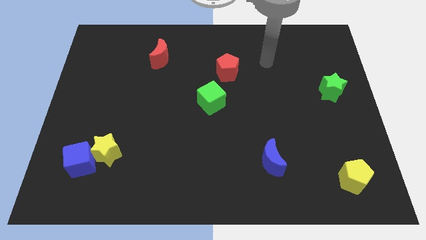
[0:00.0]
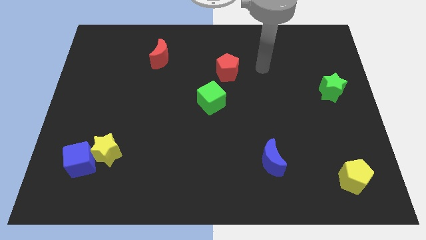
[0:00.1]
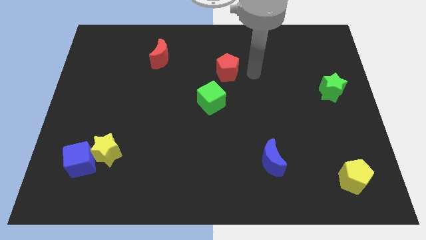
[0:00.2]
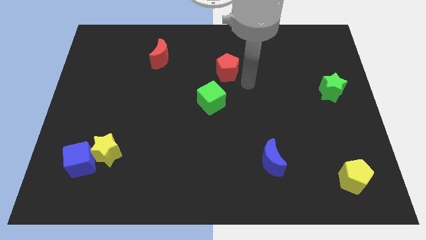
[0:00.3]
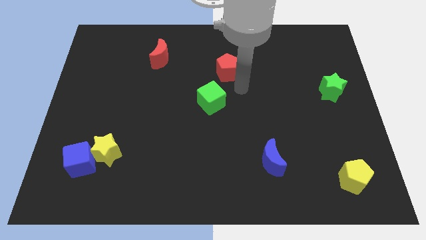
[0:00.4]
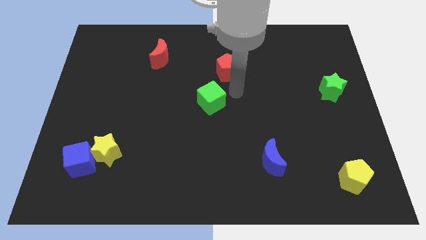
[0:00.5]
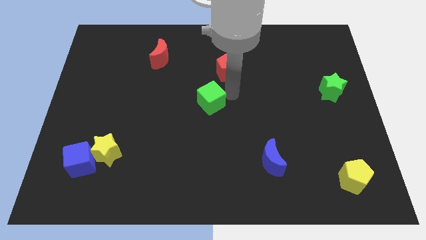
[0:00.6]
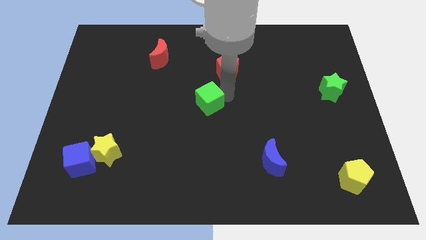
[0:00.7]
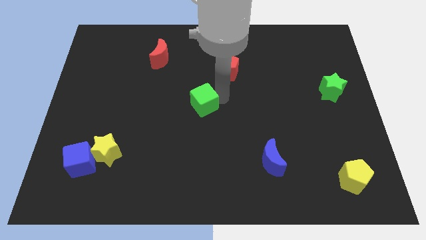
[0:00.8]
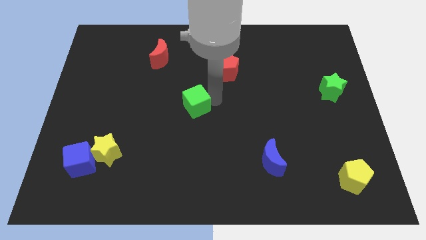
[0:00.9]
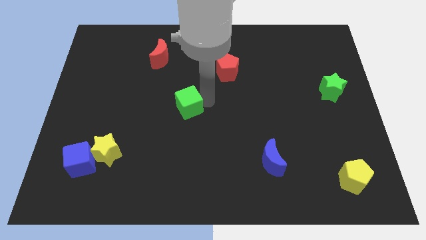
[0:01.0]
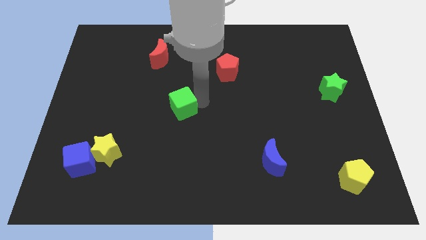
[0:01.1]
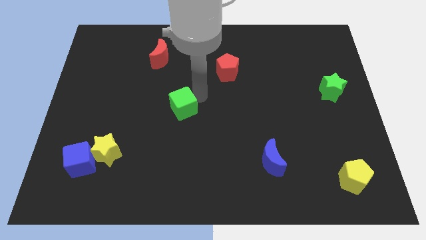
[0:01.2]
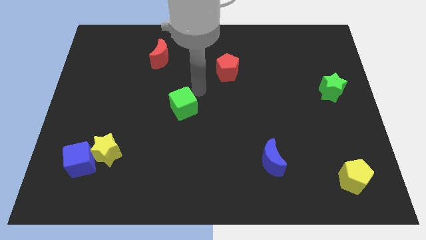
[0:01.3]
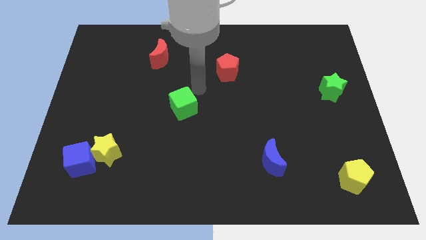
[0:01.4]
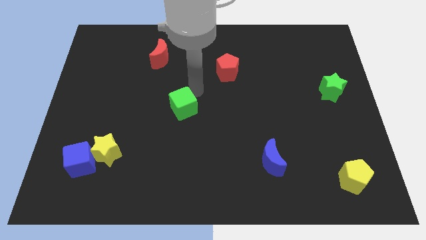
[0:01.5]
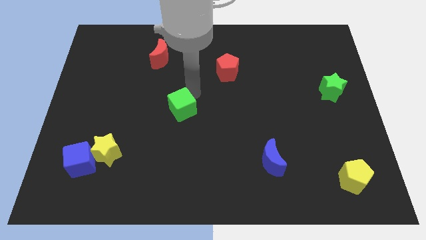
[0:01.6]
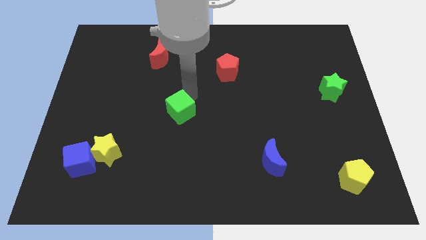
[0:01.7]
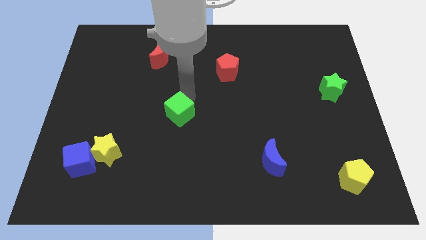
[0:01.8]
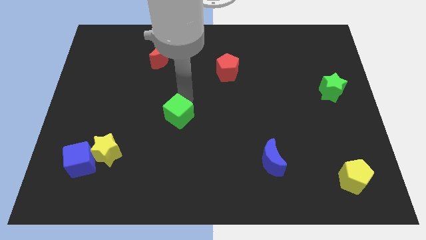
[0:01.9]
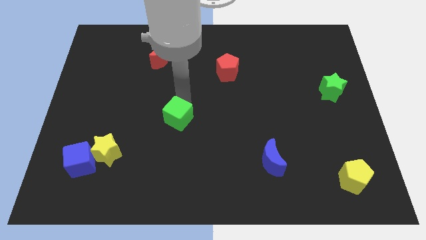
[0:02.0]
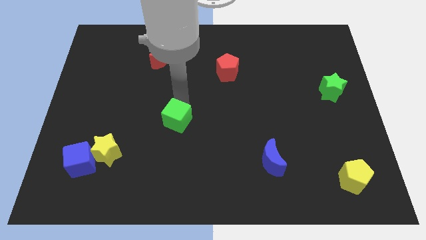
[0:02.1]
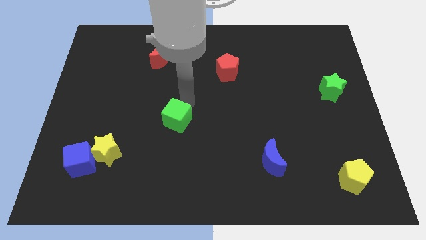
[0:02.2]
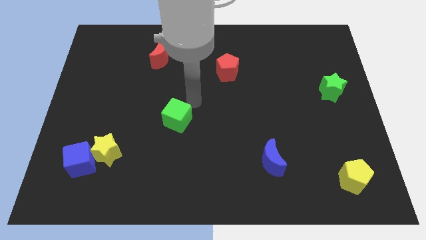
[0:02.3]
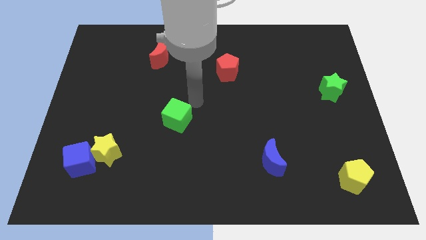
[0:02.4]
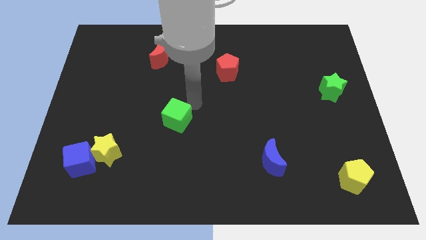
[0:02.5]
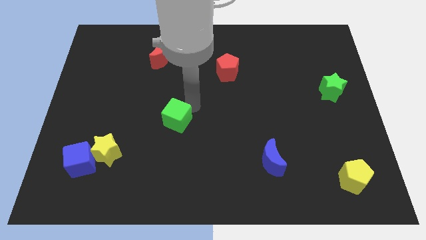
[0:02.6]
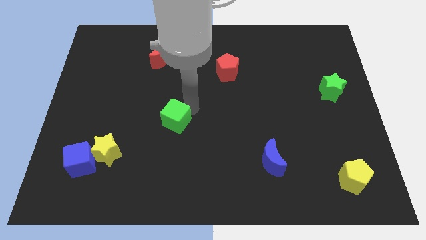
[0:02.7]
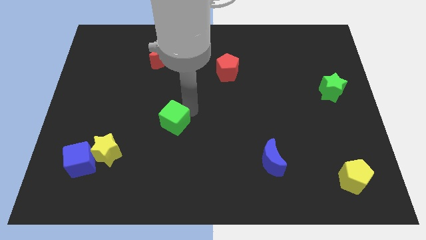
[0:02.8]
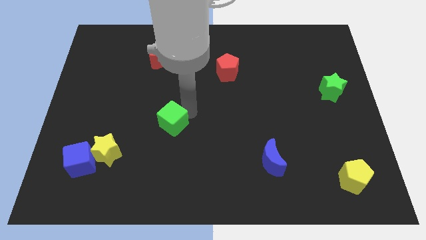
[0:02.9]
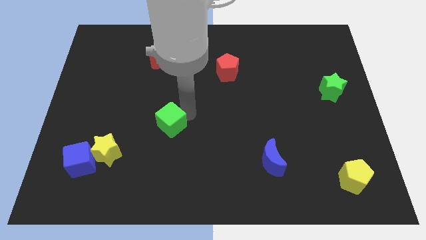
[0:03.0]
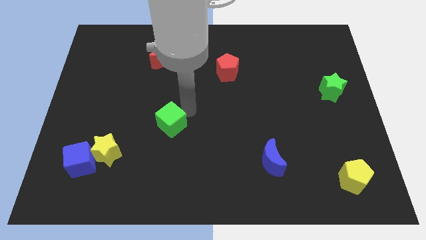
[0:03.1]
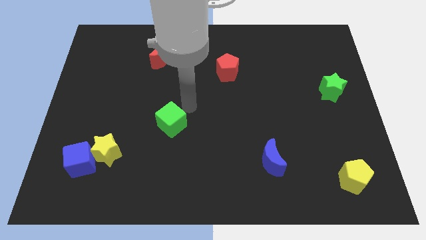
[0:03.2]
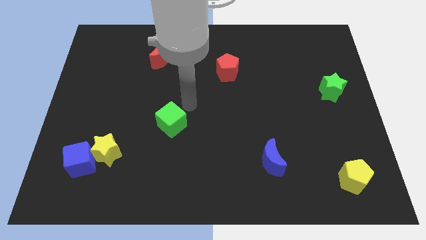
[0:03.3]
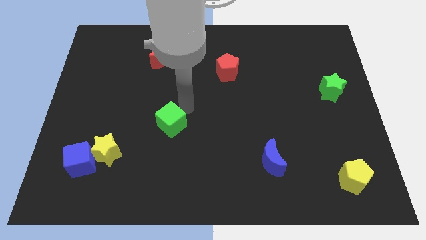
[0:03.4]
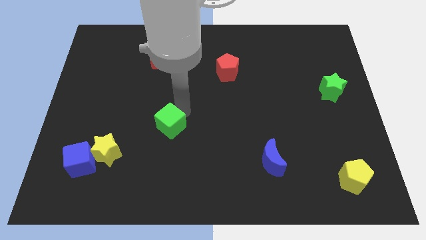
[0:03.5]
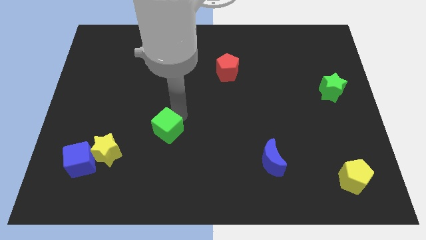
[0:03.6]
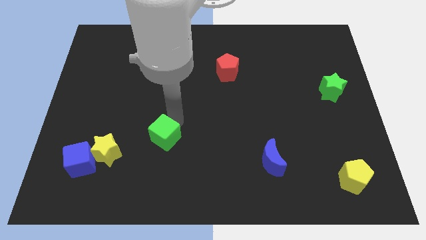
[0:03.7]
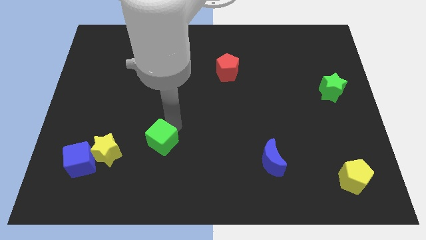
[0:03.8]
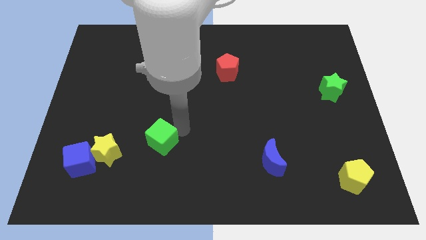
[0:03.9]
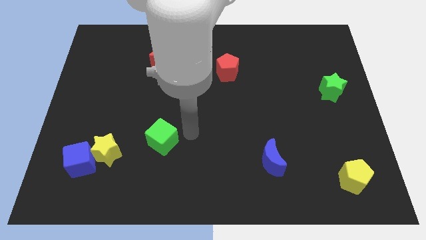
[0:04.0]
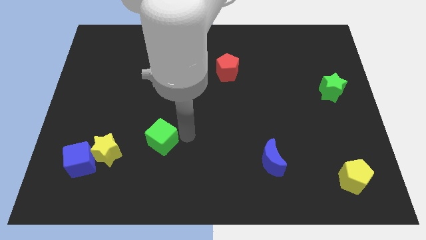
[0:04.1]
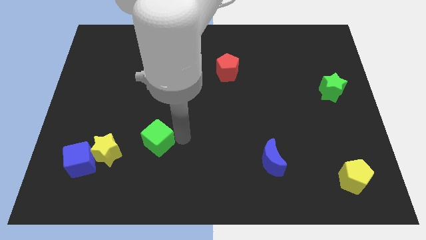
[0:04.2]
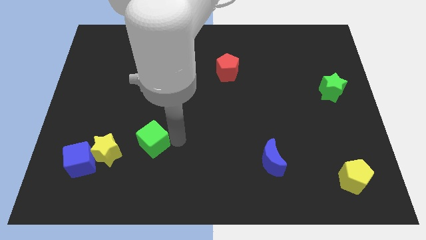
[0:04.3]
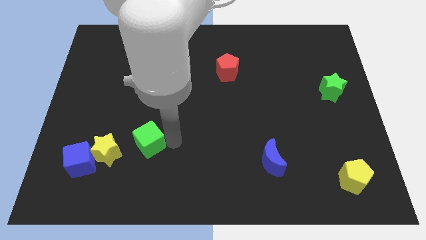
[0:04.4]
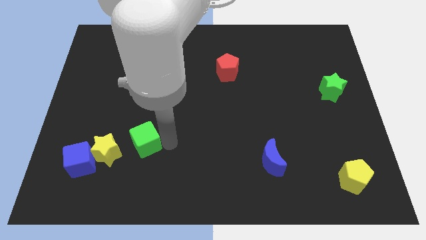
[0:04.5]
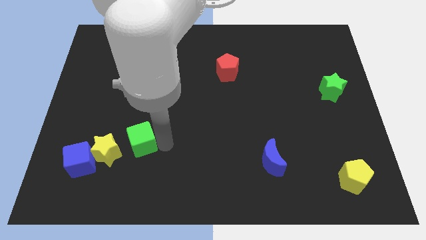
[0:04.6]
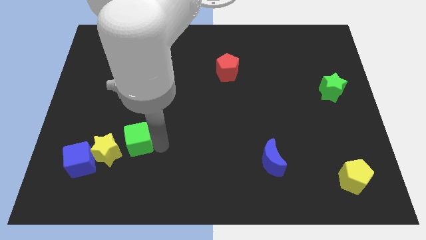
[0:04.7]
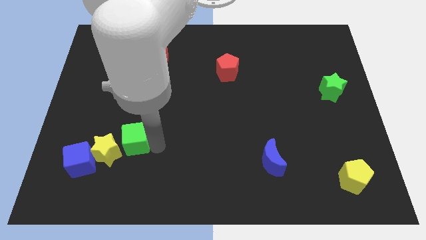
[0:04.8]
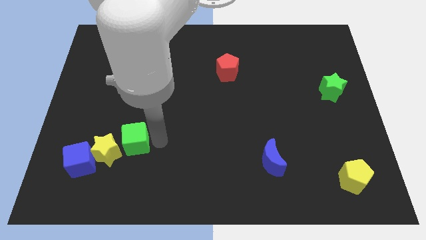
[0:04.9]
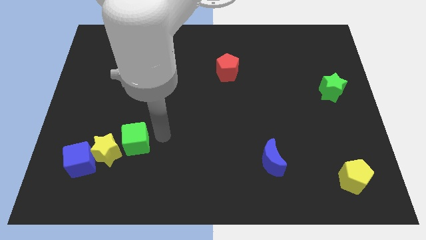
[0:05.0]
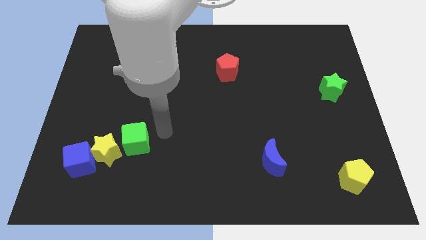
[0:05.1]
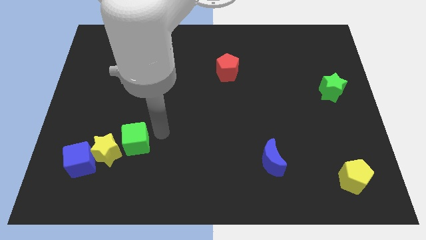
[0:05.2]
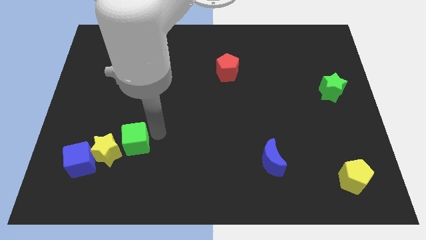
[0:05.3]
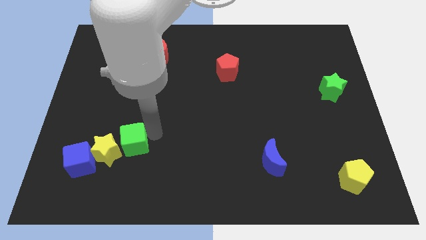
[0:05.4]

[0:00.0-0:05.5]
put the green cube next to the yellow star

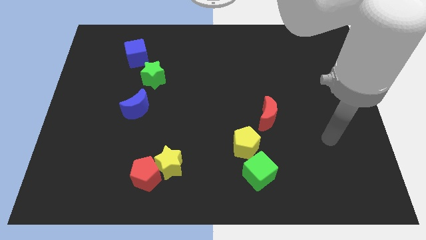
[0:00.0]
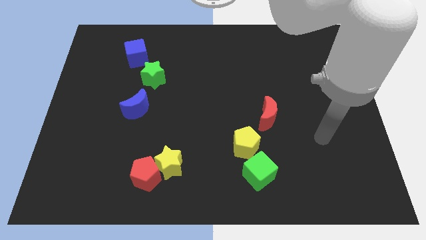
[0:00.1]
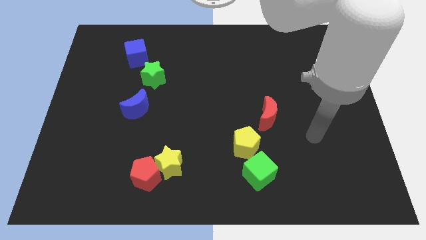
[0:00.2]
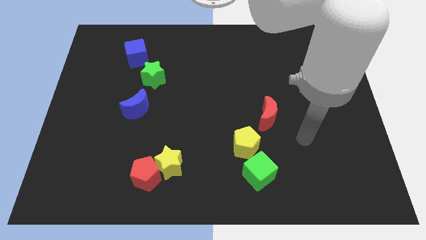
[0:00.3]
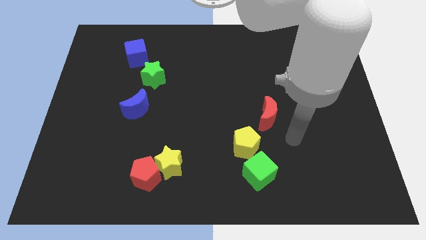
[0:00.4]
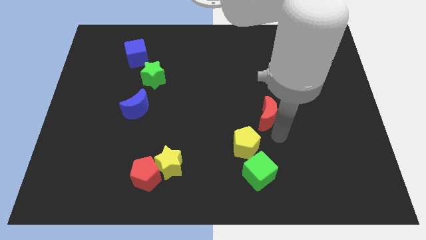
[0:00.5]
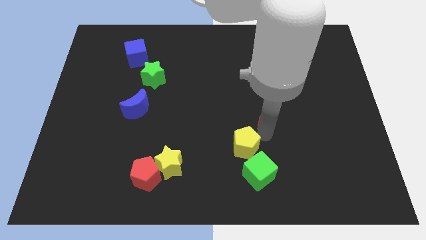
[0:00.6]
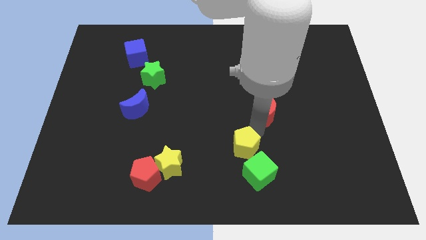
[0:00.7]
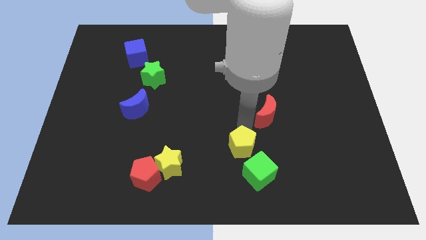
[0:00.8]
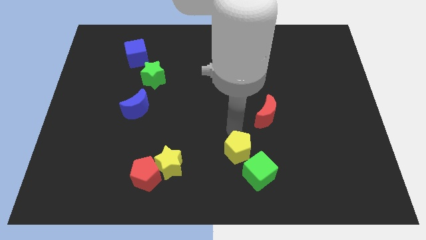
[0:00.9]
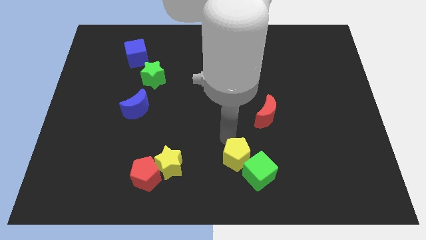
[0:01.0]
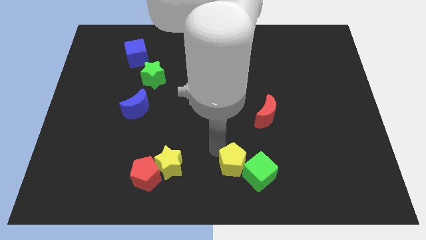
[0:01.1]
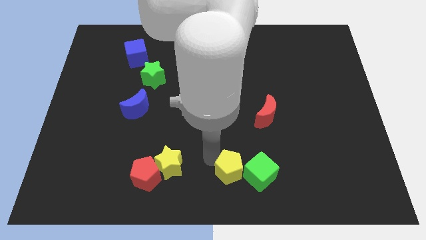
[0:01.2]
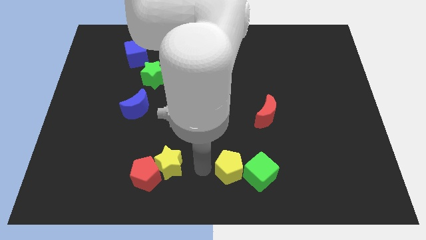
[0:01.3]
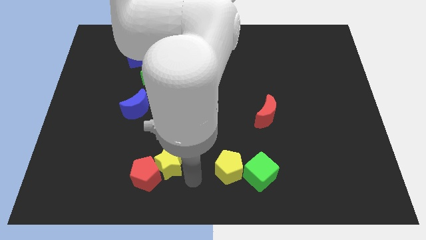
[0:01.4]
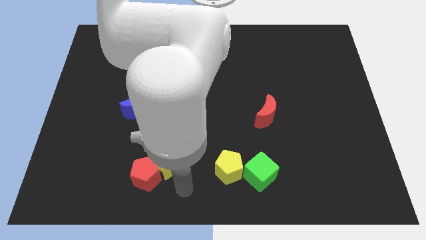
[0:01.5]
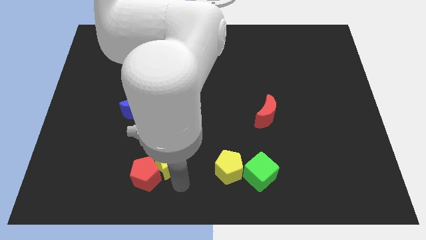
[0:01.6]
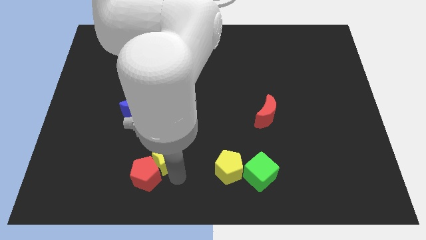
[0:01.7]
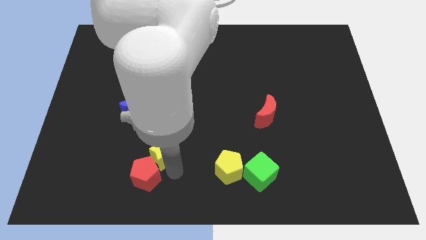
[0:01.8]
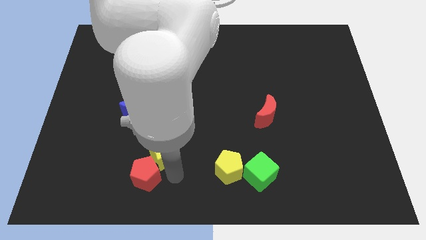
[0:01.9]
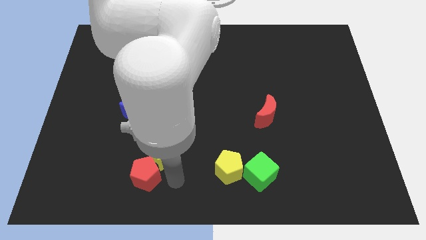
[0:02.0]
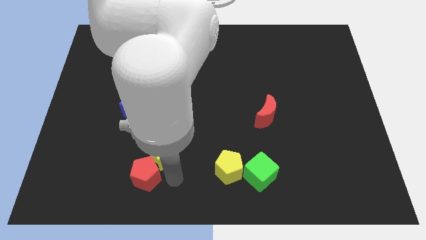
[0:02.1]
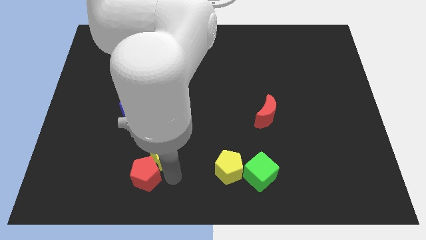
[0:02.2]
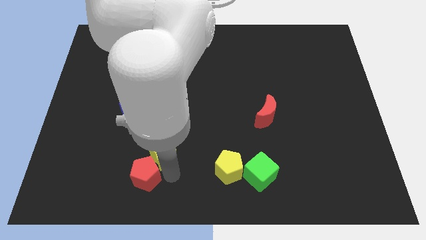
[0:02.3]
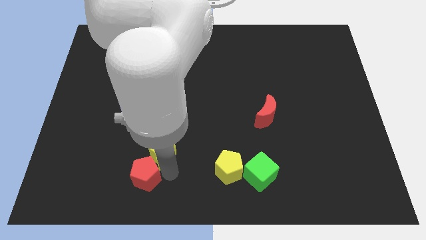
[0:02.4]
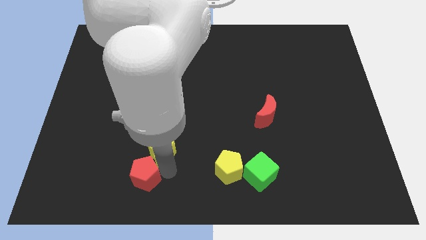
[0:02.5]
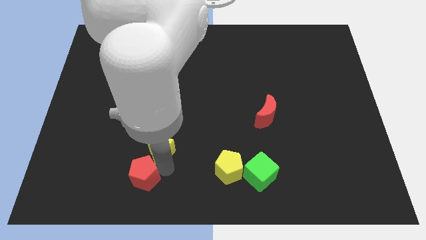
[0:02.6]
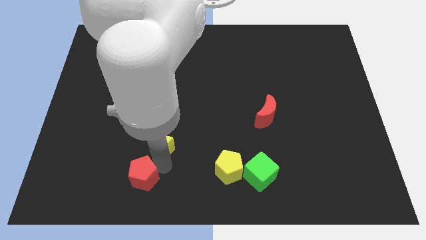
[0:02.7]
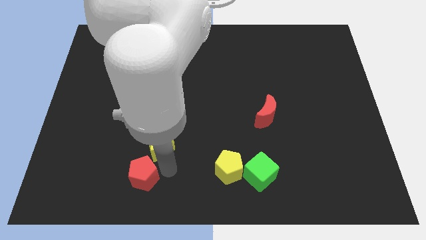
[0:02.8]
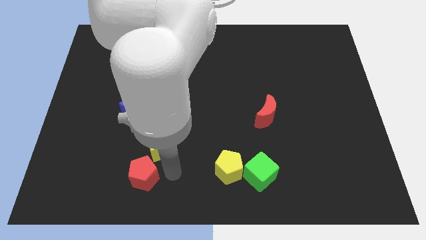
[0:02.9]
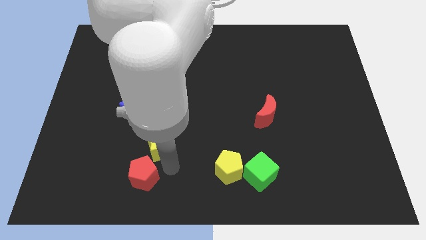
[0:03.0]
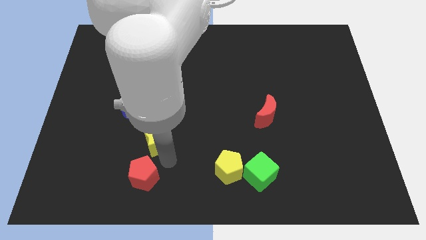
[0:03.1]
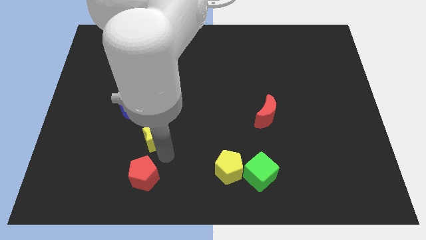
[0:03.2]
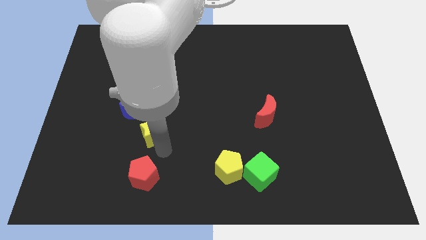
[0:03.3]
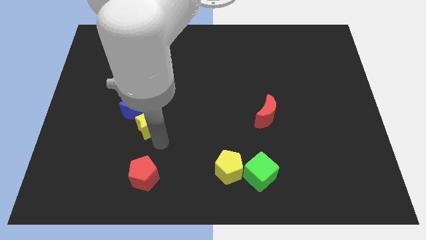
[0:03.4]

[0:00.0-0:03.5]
slide the yellow star close to the blue moon
